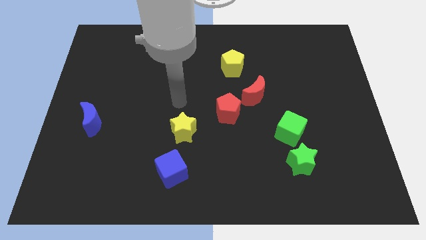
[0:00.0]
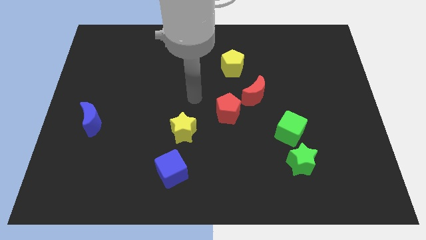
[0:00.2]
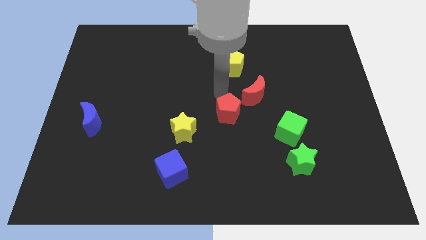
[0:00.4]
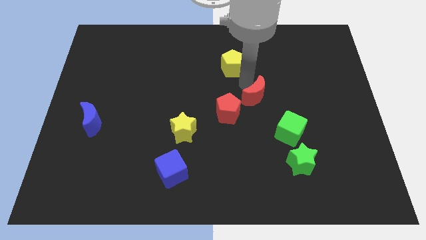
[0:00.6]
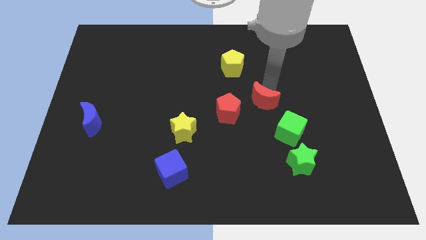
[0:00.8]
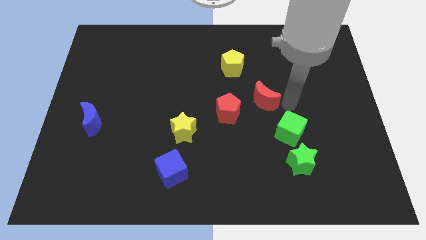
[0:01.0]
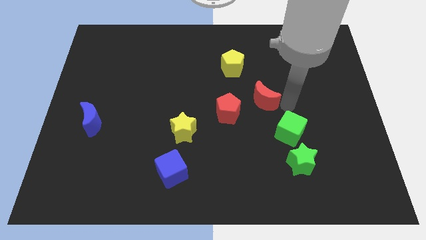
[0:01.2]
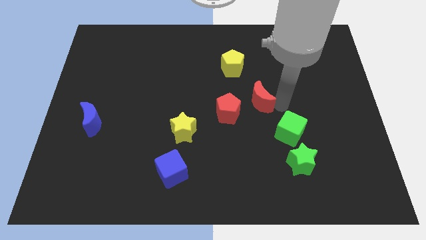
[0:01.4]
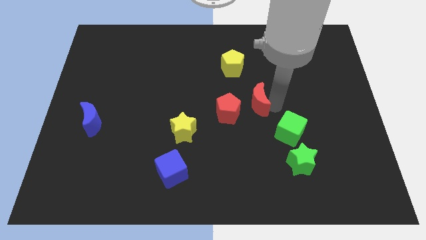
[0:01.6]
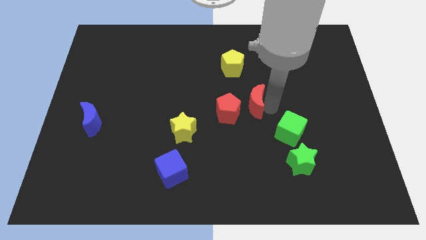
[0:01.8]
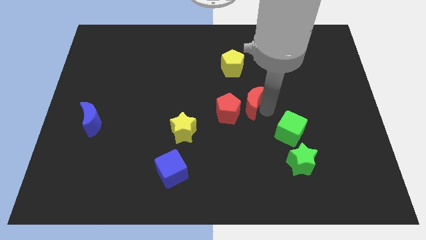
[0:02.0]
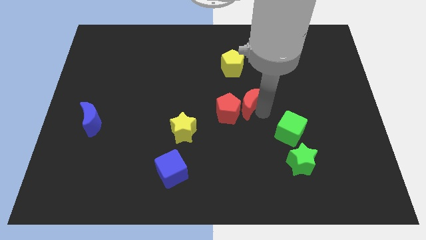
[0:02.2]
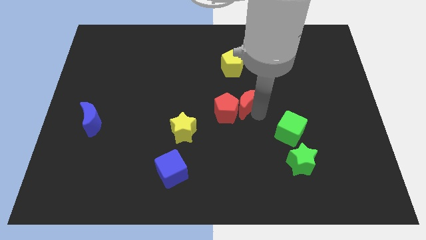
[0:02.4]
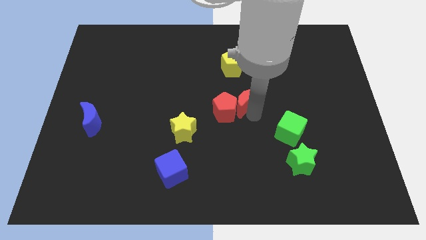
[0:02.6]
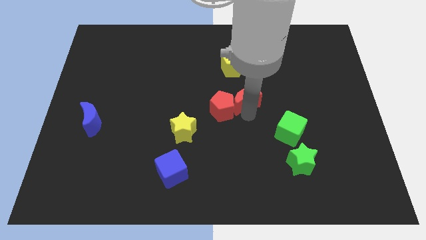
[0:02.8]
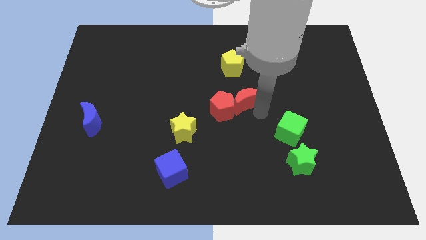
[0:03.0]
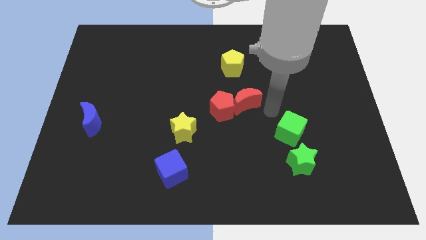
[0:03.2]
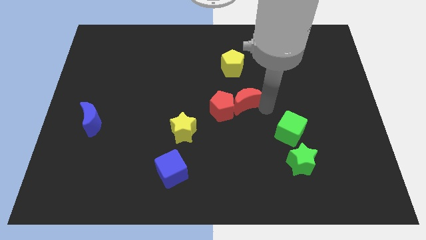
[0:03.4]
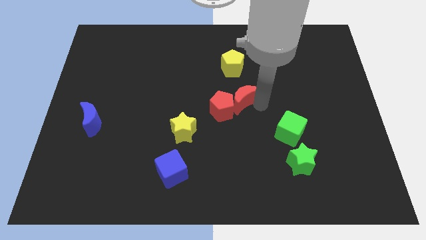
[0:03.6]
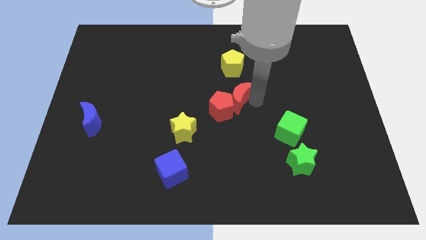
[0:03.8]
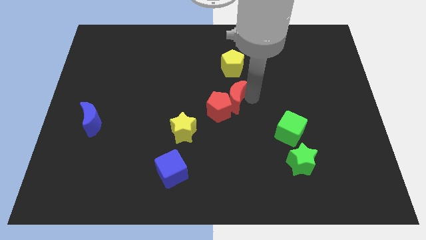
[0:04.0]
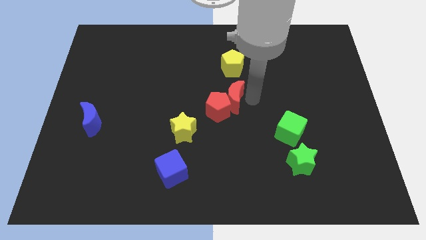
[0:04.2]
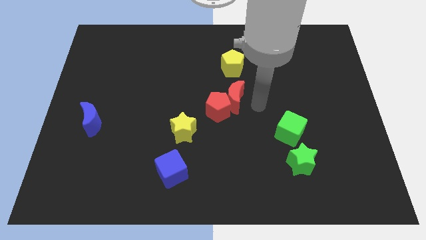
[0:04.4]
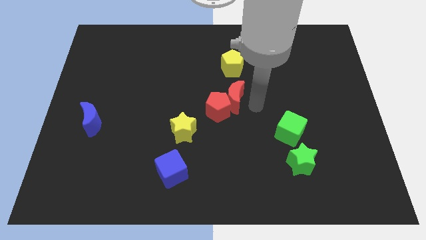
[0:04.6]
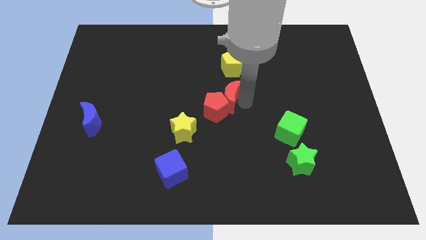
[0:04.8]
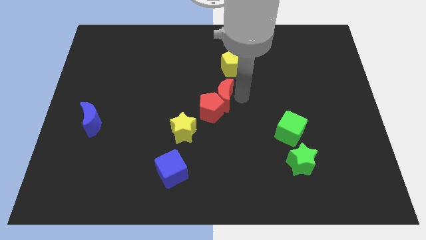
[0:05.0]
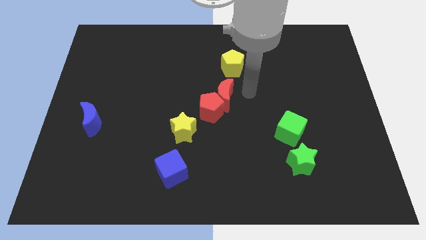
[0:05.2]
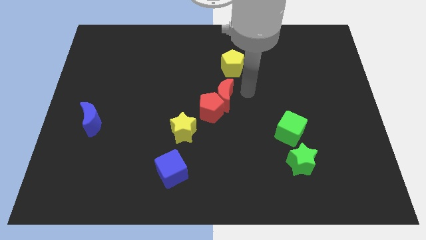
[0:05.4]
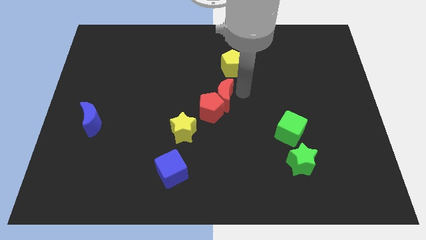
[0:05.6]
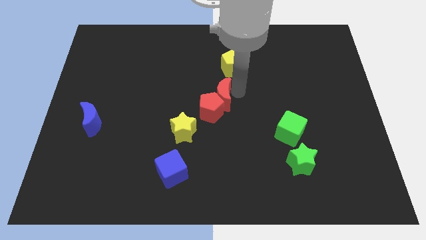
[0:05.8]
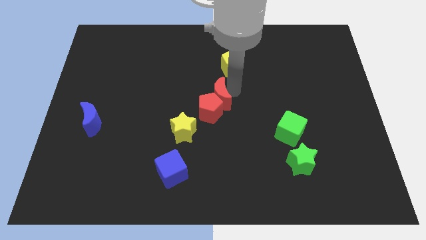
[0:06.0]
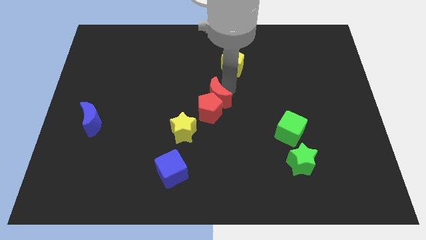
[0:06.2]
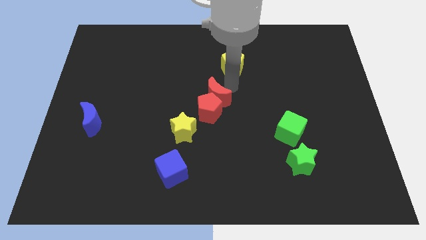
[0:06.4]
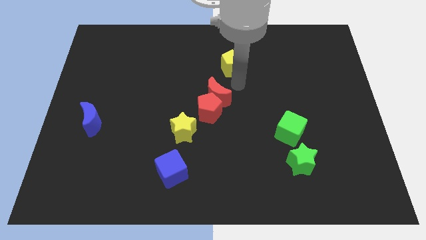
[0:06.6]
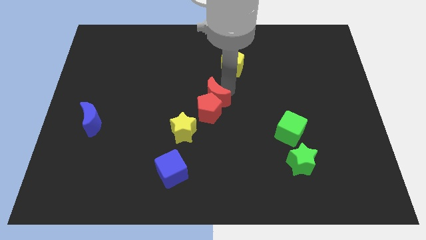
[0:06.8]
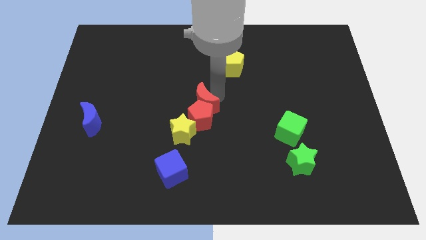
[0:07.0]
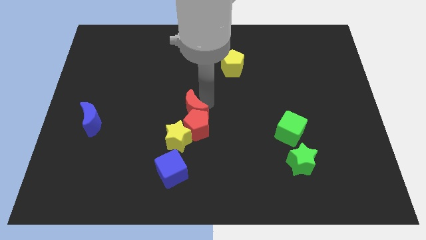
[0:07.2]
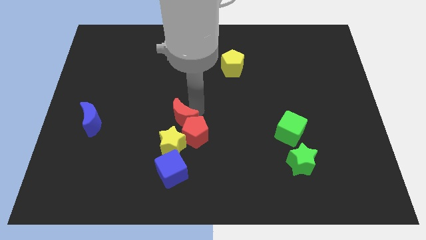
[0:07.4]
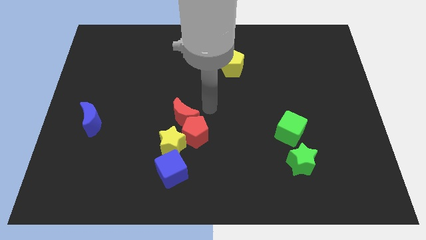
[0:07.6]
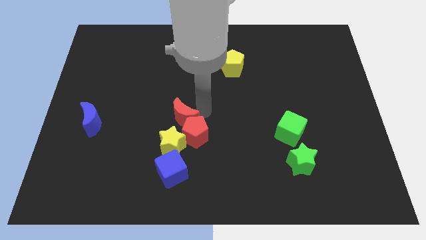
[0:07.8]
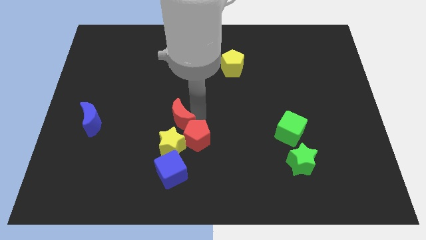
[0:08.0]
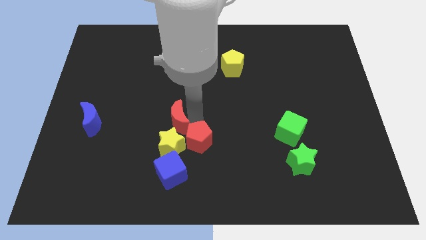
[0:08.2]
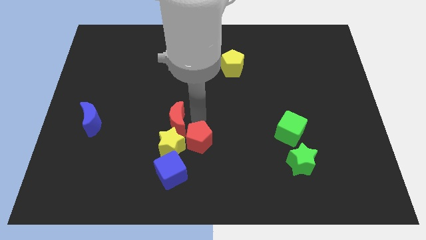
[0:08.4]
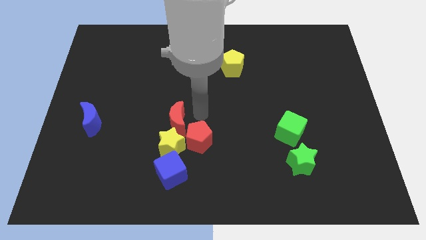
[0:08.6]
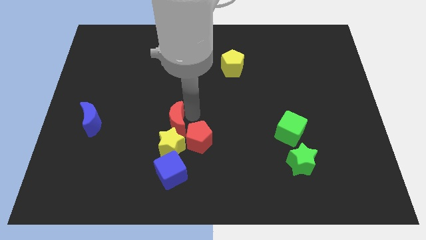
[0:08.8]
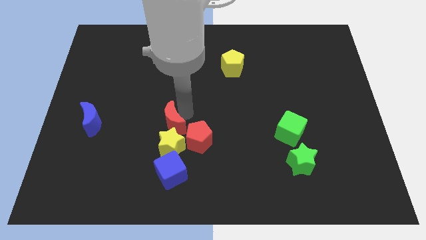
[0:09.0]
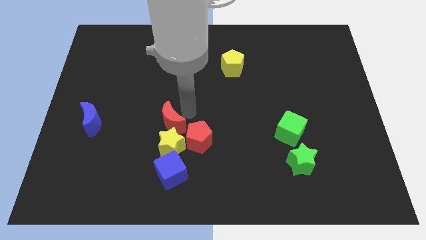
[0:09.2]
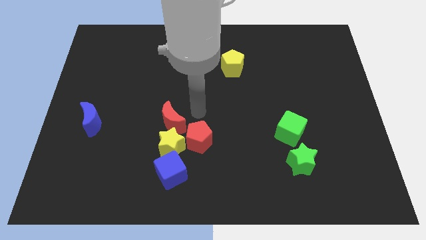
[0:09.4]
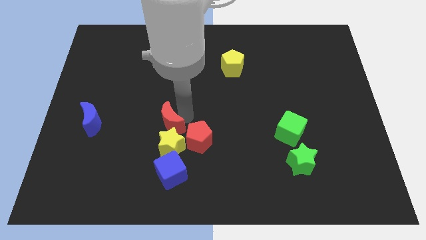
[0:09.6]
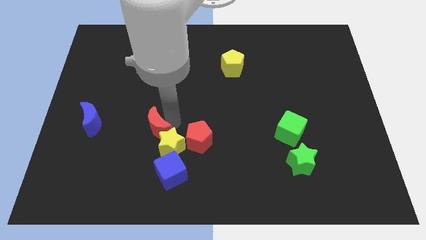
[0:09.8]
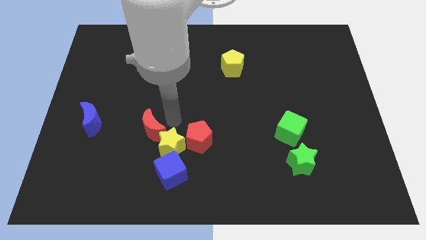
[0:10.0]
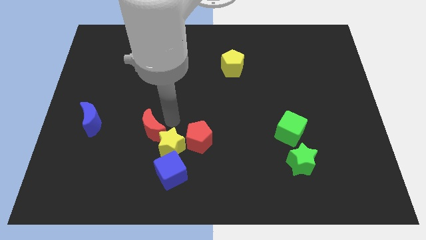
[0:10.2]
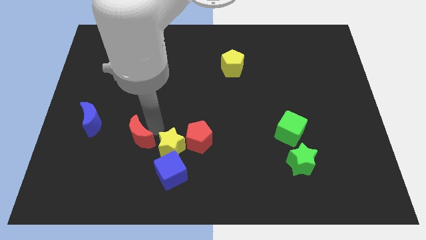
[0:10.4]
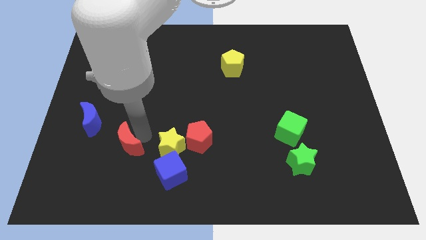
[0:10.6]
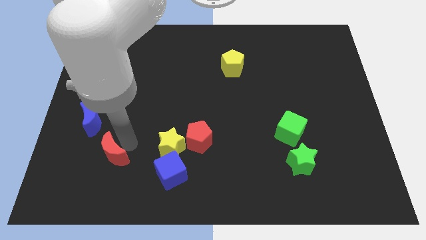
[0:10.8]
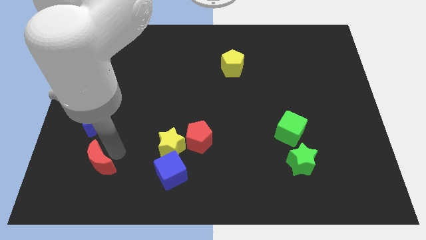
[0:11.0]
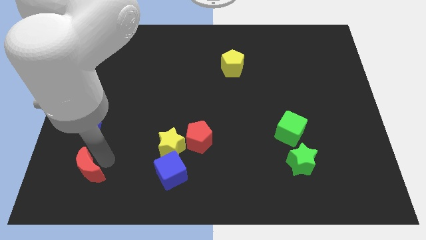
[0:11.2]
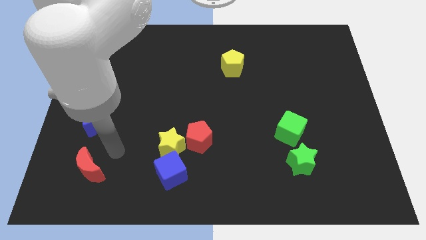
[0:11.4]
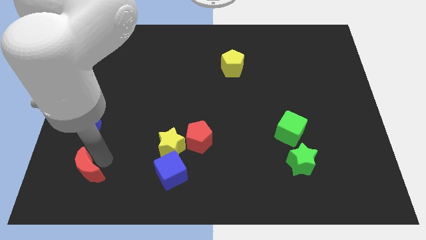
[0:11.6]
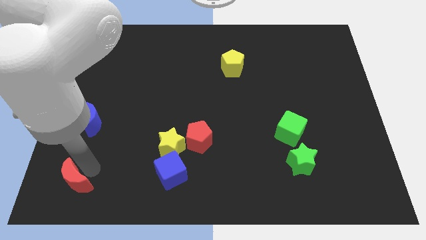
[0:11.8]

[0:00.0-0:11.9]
slide the red moon to the lower left corner
